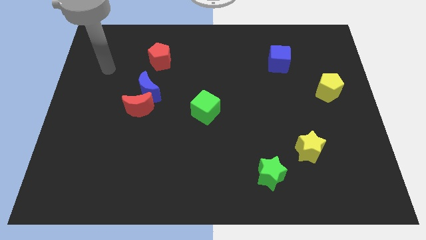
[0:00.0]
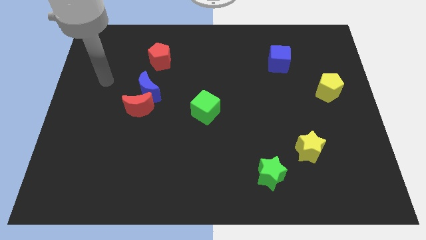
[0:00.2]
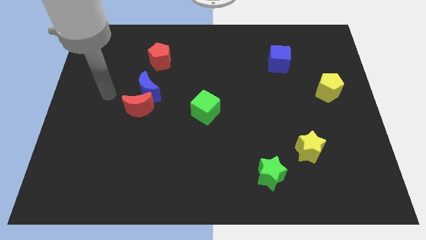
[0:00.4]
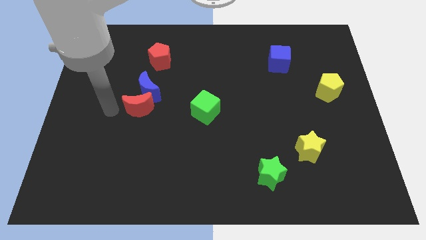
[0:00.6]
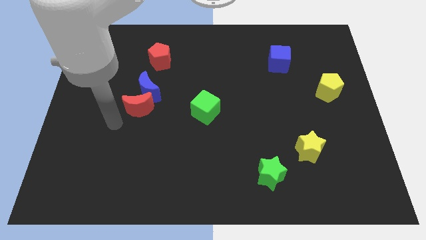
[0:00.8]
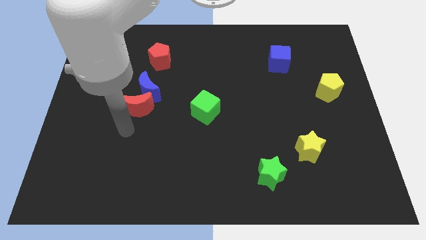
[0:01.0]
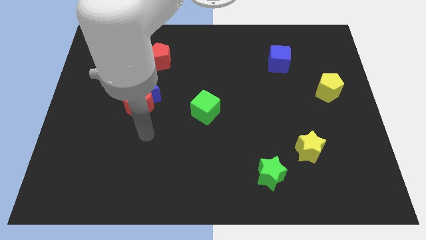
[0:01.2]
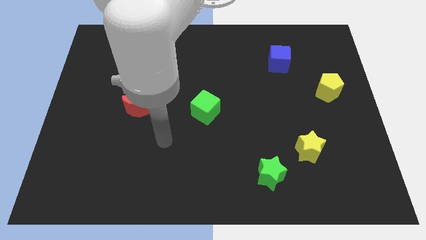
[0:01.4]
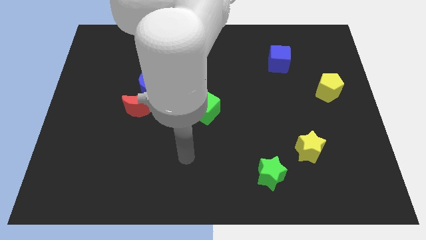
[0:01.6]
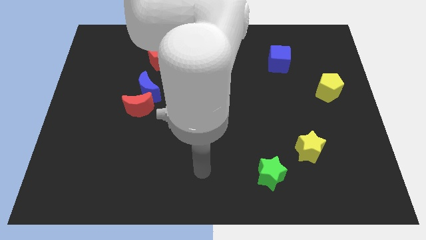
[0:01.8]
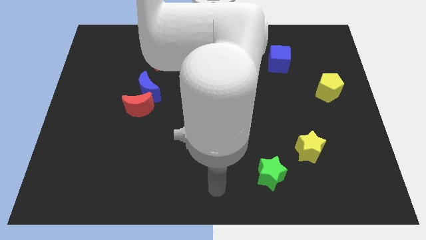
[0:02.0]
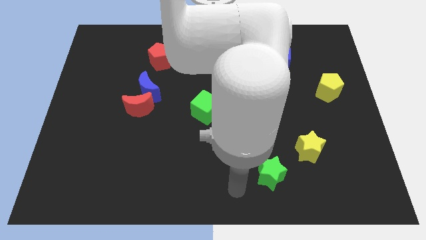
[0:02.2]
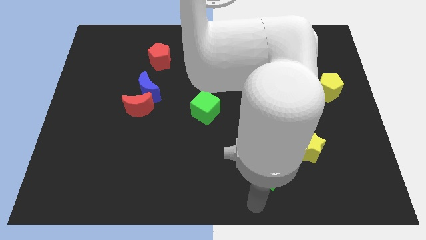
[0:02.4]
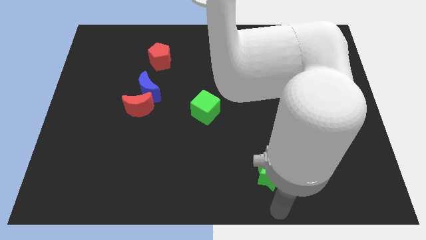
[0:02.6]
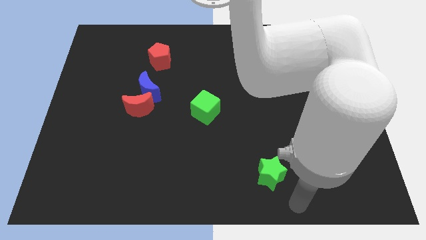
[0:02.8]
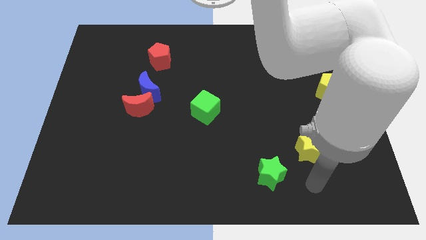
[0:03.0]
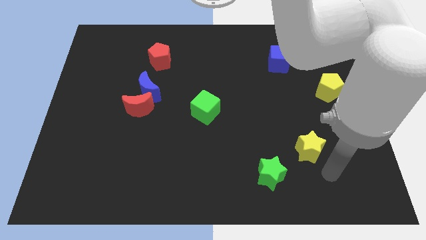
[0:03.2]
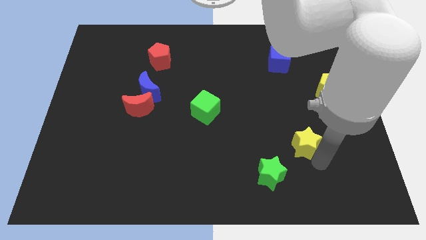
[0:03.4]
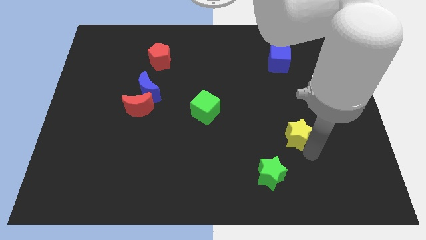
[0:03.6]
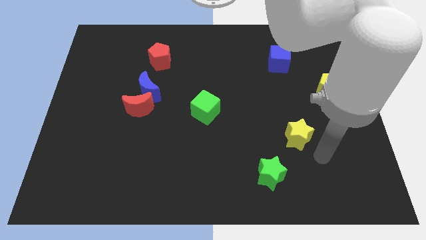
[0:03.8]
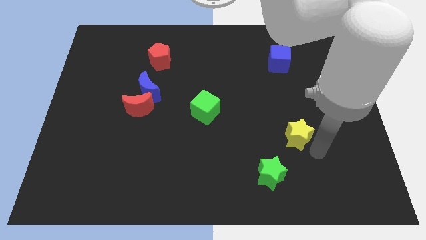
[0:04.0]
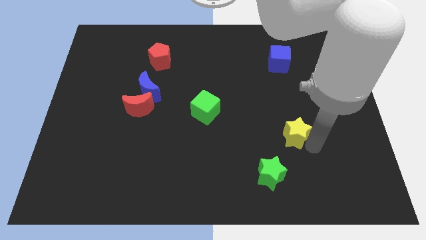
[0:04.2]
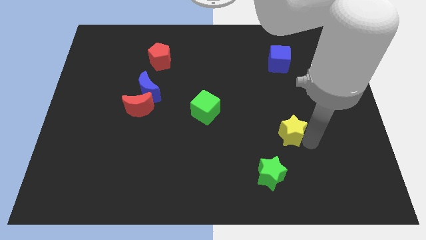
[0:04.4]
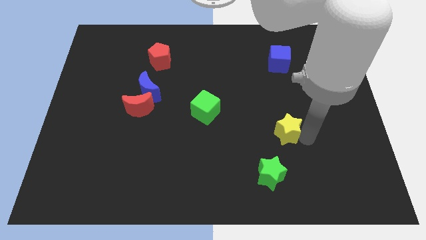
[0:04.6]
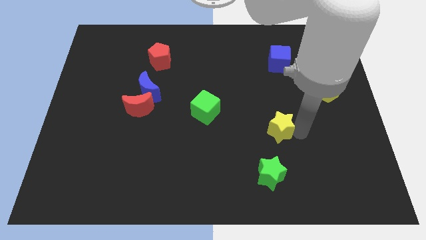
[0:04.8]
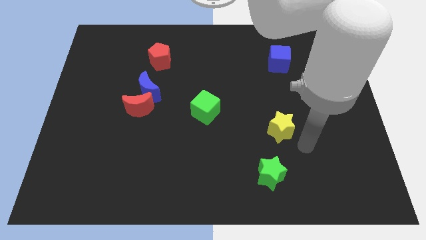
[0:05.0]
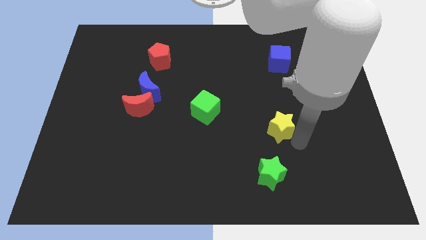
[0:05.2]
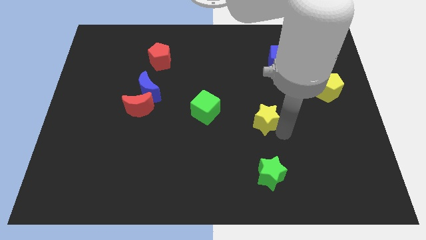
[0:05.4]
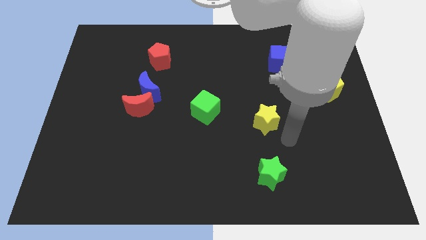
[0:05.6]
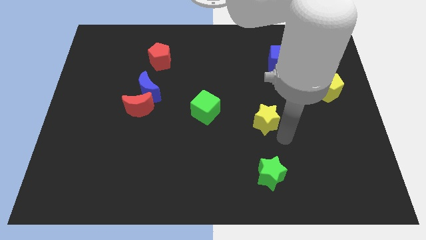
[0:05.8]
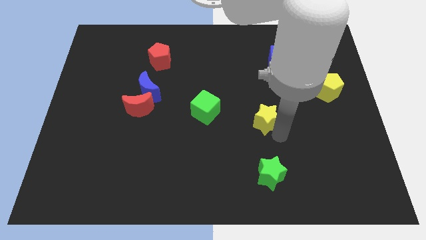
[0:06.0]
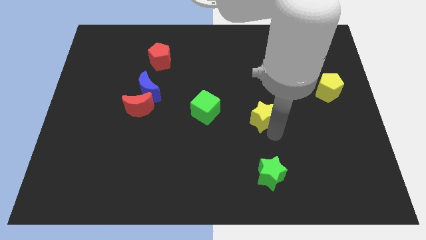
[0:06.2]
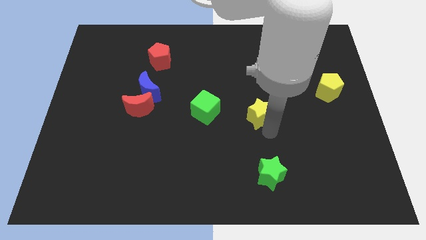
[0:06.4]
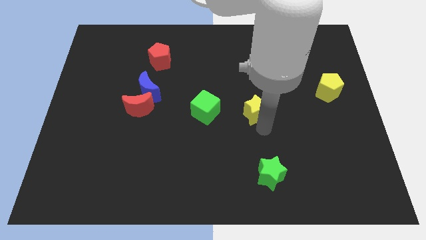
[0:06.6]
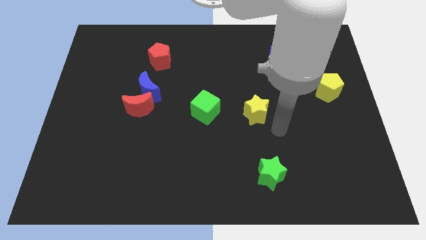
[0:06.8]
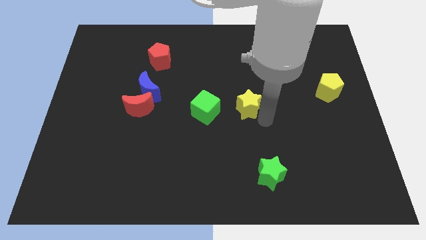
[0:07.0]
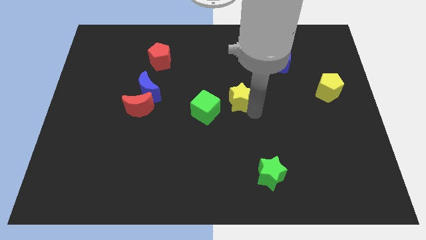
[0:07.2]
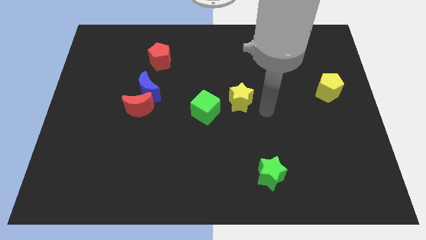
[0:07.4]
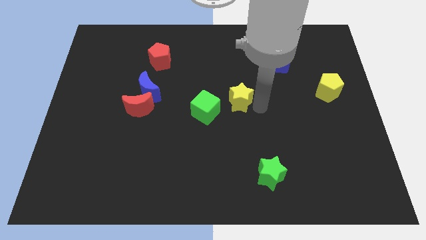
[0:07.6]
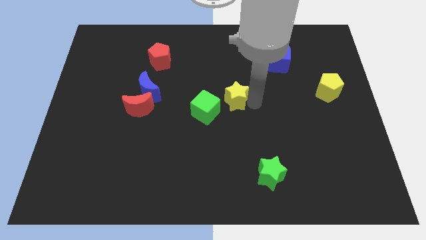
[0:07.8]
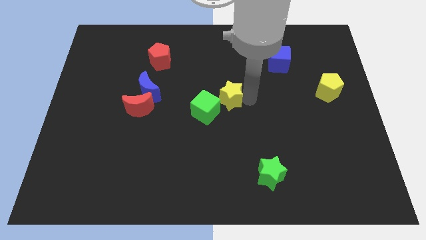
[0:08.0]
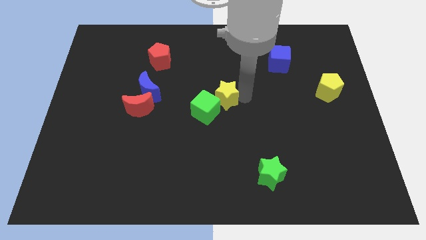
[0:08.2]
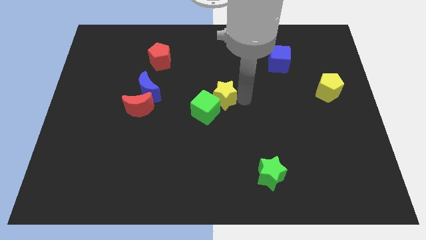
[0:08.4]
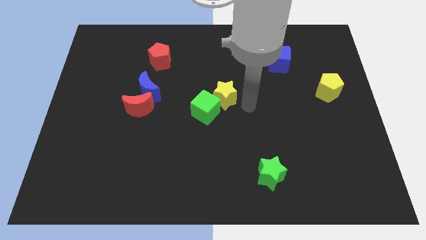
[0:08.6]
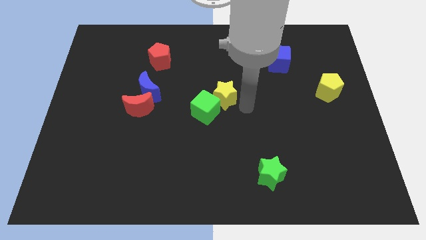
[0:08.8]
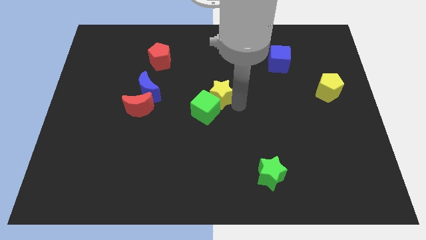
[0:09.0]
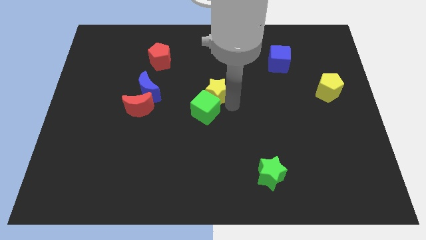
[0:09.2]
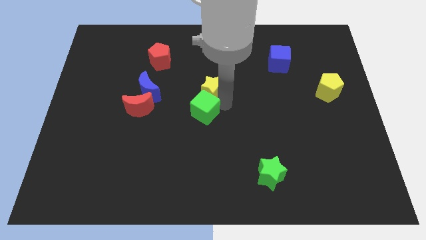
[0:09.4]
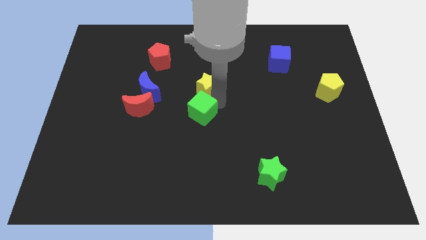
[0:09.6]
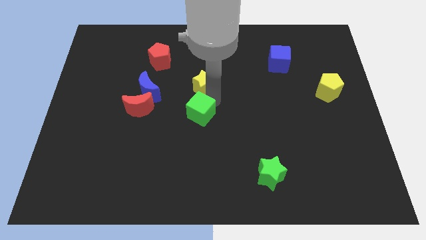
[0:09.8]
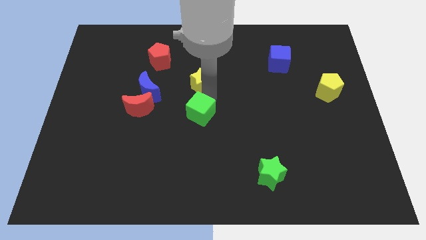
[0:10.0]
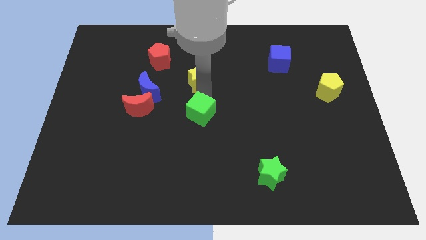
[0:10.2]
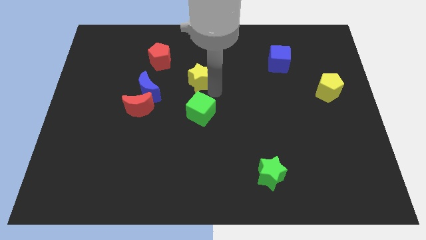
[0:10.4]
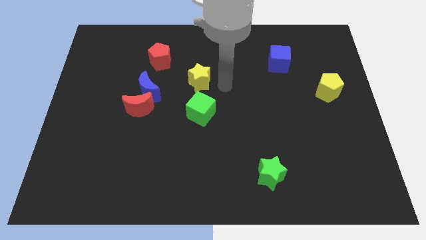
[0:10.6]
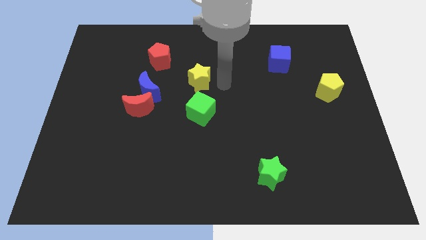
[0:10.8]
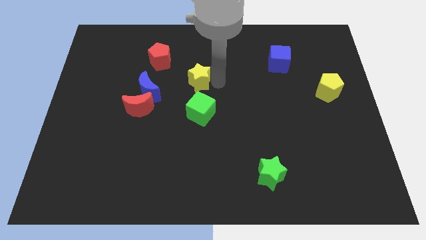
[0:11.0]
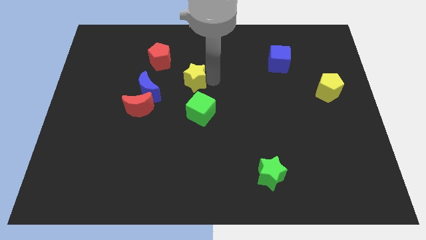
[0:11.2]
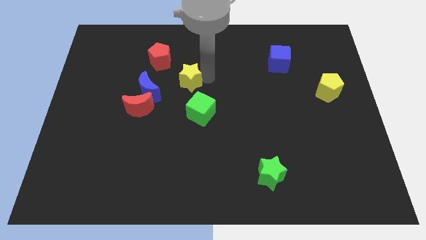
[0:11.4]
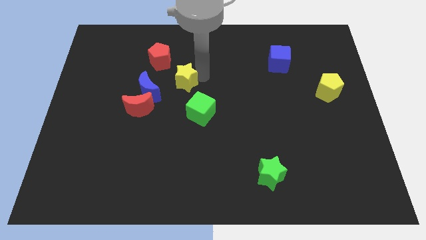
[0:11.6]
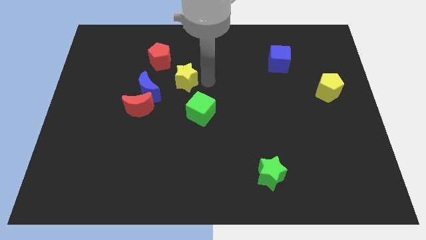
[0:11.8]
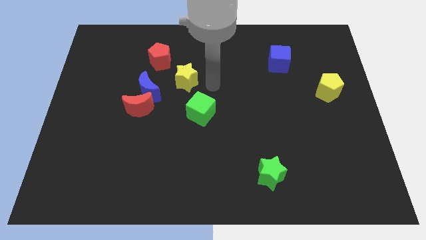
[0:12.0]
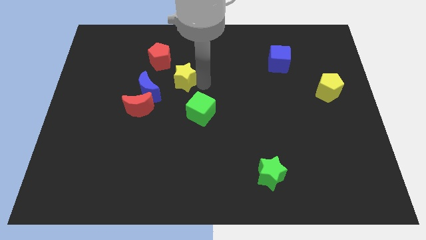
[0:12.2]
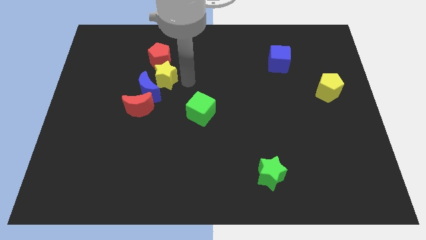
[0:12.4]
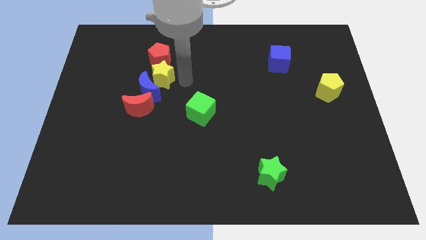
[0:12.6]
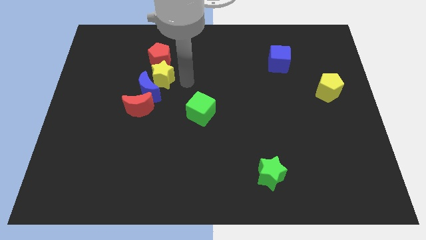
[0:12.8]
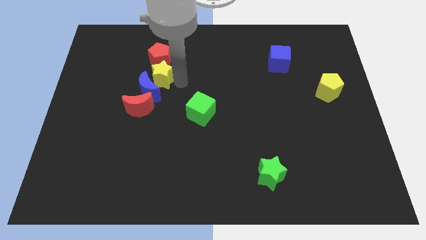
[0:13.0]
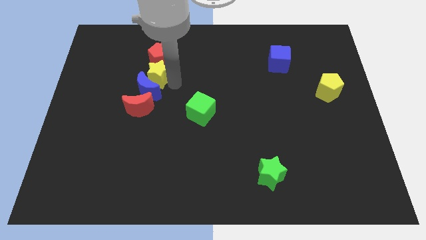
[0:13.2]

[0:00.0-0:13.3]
slide the yellow star to the bottom left of the red pentagon
